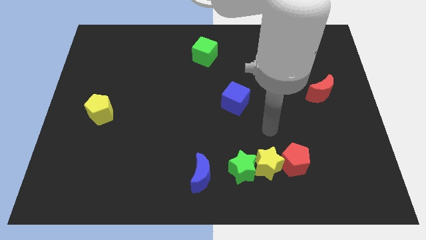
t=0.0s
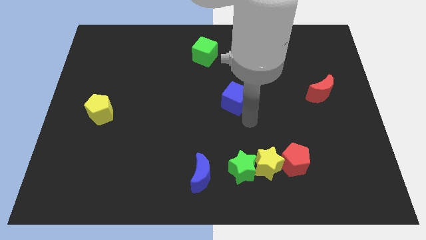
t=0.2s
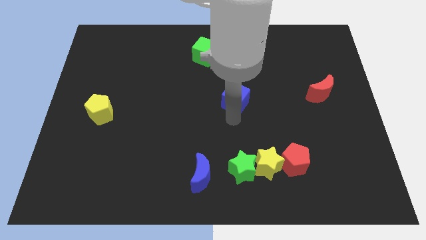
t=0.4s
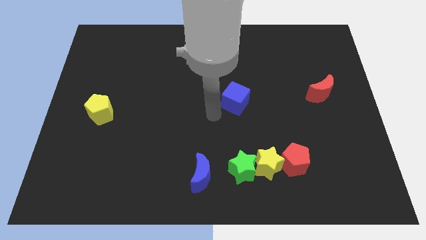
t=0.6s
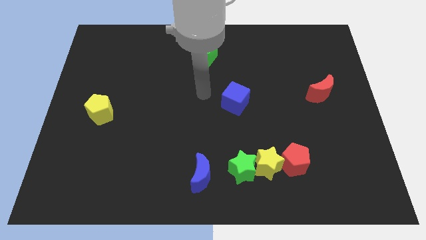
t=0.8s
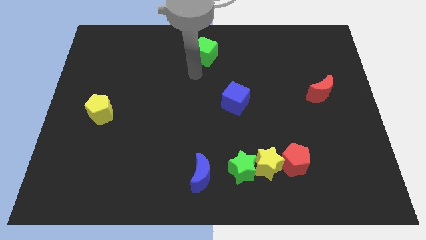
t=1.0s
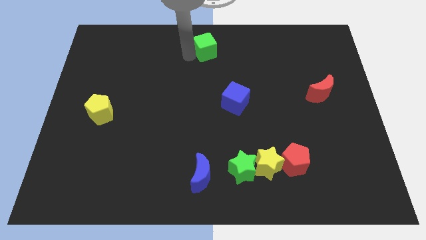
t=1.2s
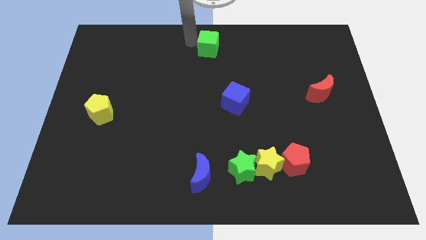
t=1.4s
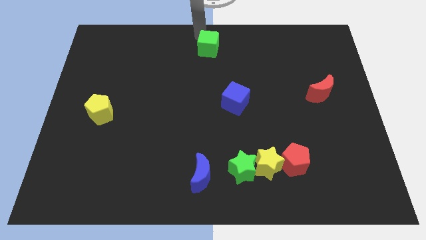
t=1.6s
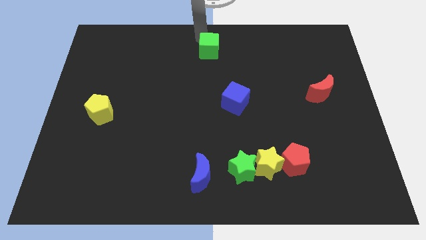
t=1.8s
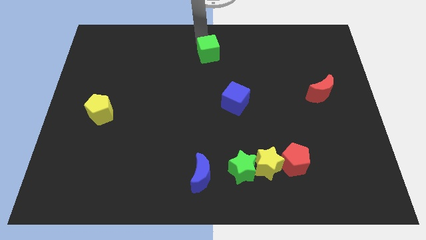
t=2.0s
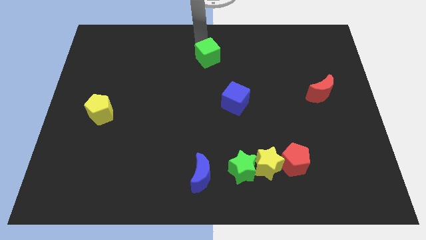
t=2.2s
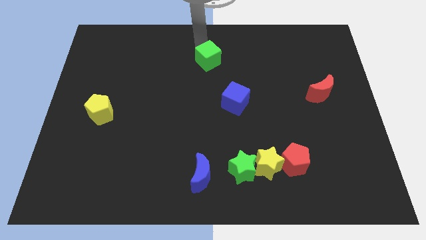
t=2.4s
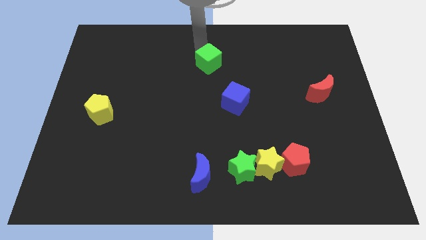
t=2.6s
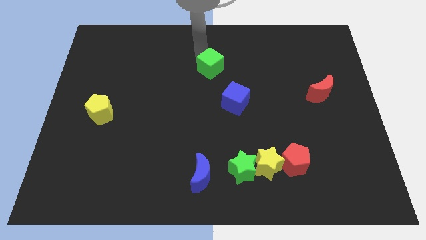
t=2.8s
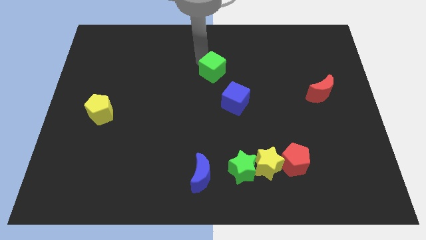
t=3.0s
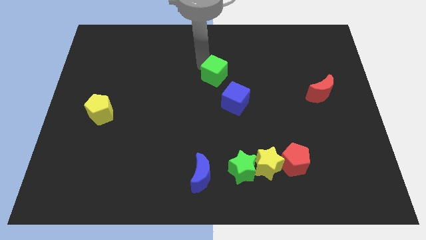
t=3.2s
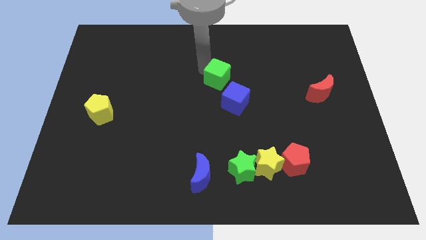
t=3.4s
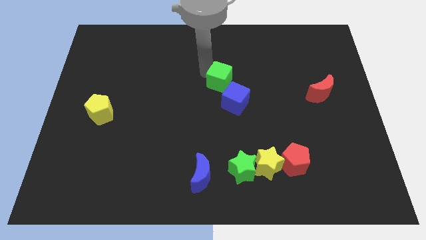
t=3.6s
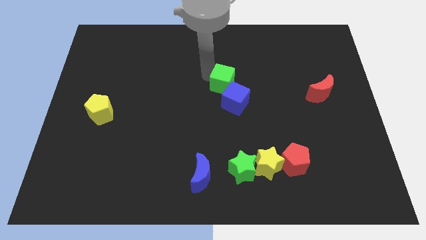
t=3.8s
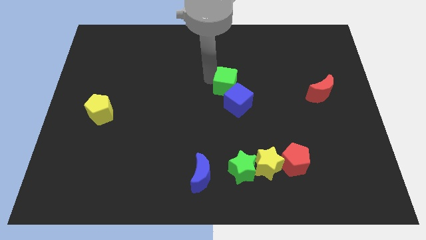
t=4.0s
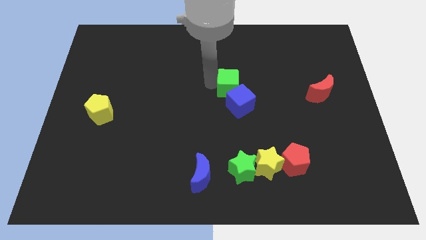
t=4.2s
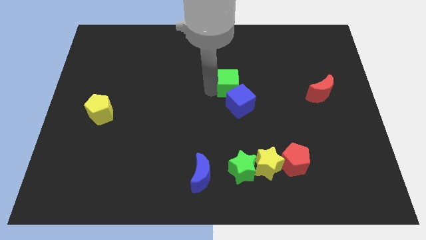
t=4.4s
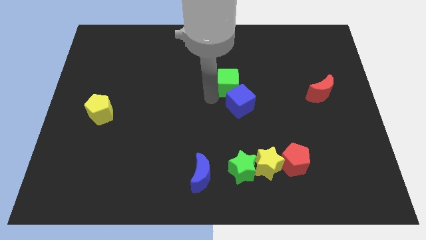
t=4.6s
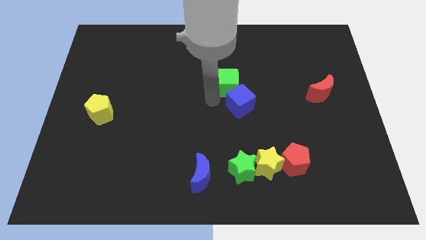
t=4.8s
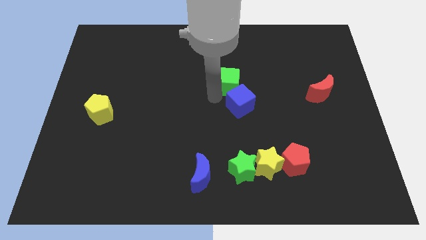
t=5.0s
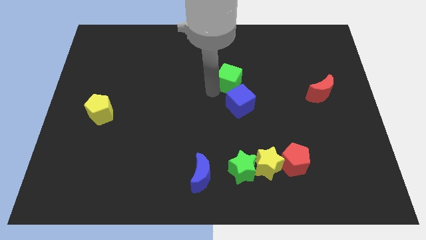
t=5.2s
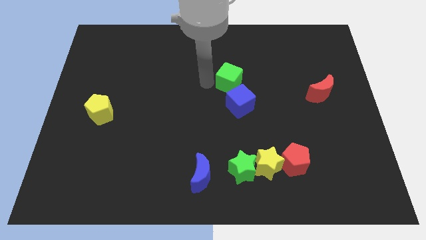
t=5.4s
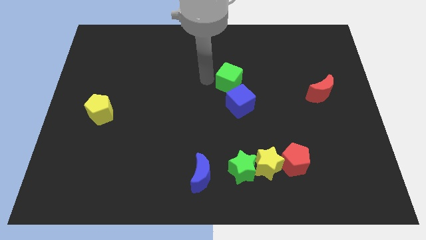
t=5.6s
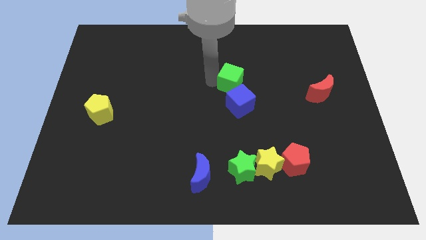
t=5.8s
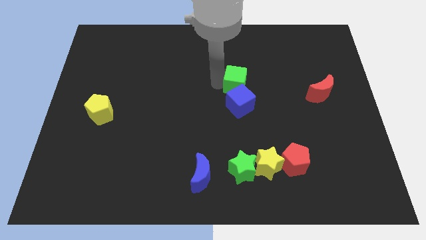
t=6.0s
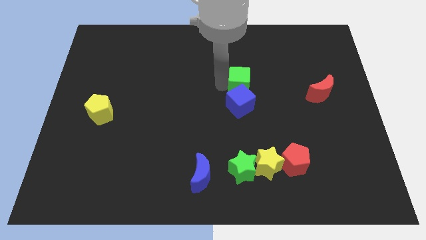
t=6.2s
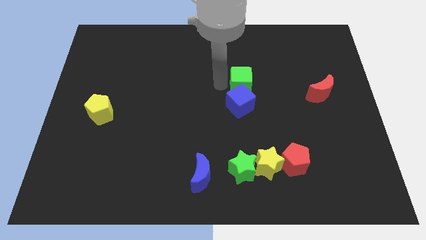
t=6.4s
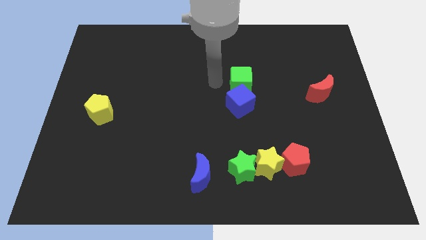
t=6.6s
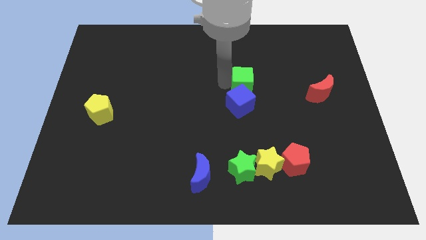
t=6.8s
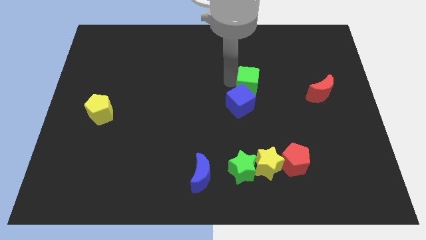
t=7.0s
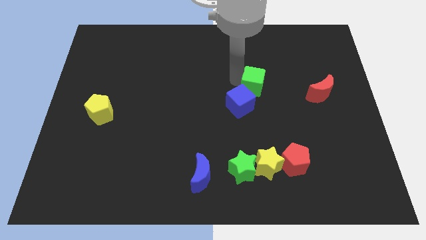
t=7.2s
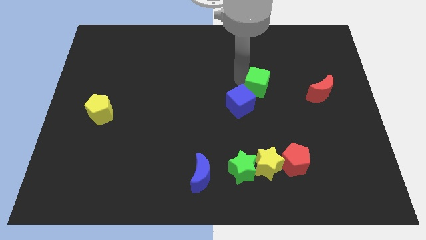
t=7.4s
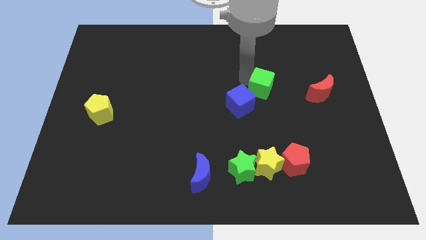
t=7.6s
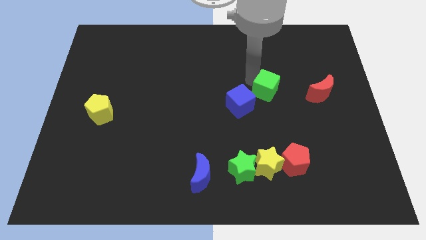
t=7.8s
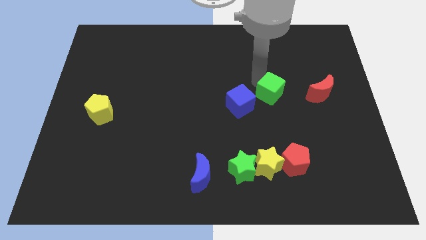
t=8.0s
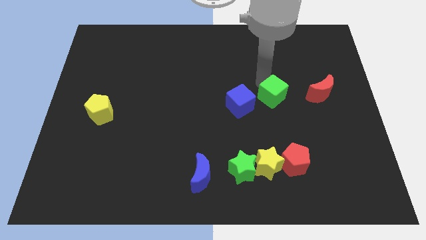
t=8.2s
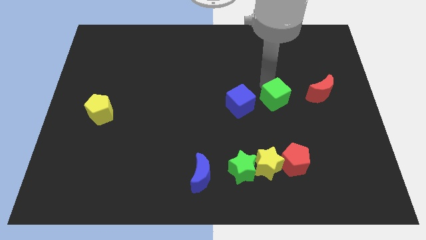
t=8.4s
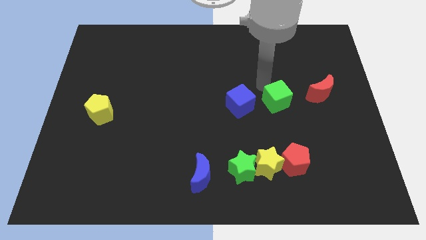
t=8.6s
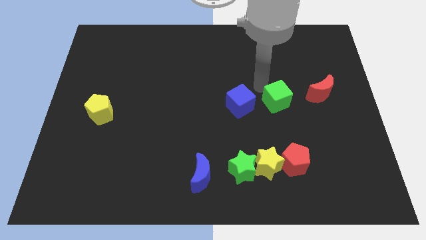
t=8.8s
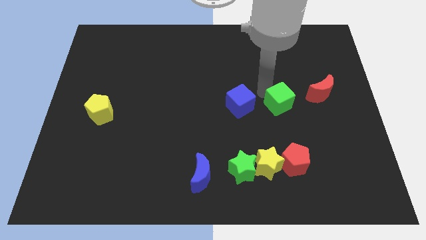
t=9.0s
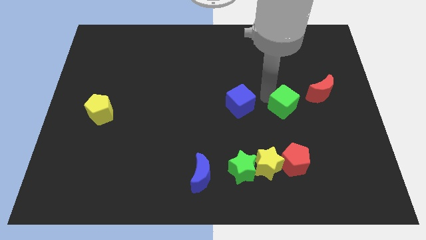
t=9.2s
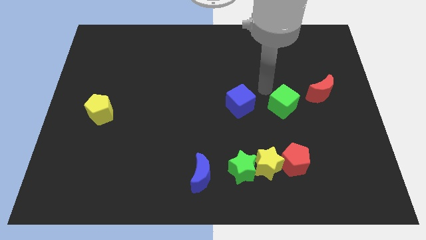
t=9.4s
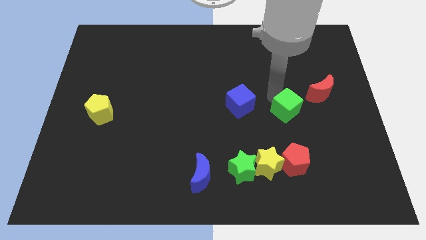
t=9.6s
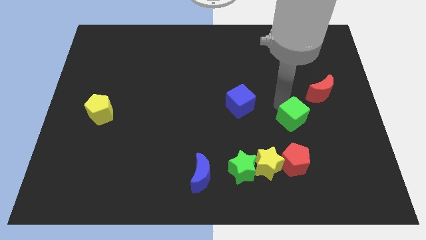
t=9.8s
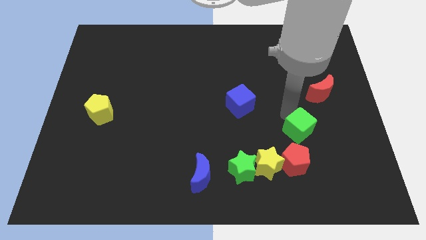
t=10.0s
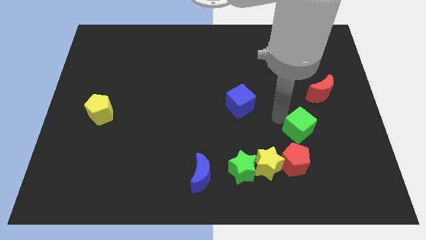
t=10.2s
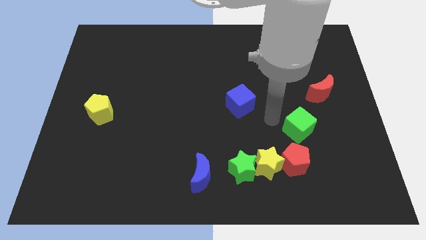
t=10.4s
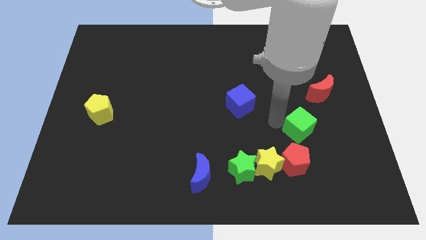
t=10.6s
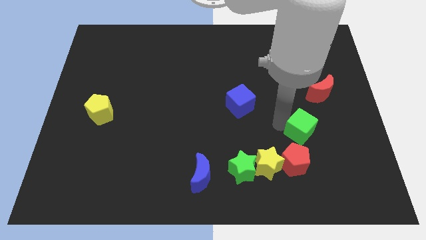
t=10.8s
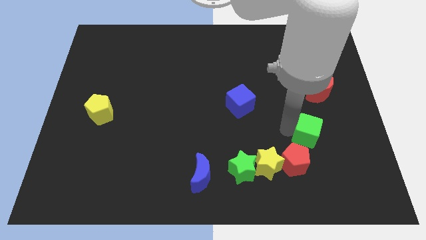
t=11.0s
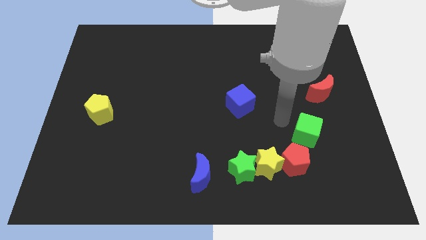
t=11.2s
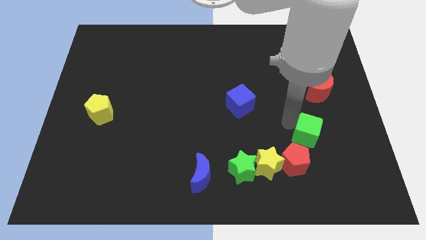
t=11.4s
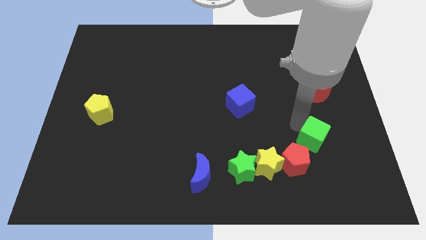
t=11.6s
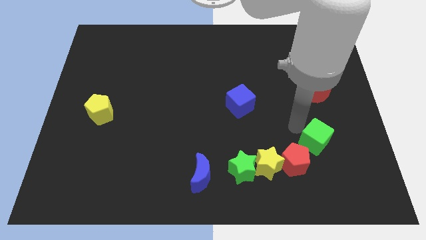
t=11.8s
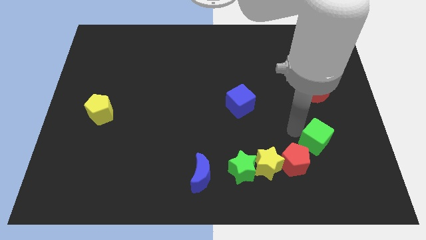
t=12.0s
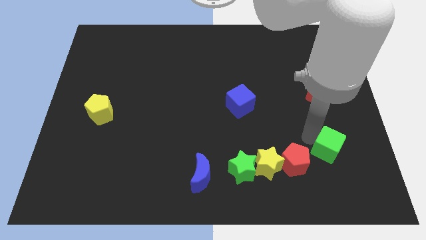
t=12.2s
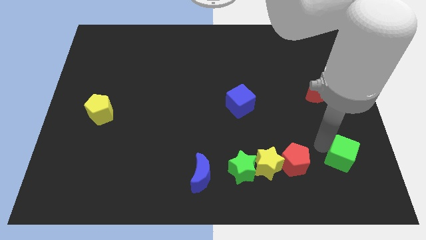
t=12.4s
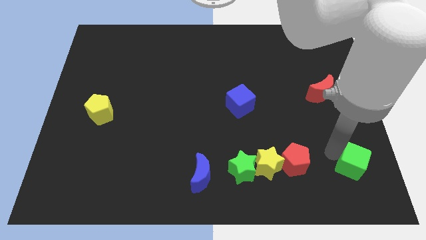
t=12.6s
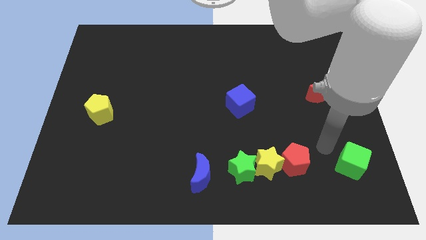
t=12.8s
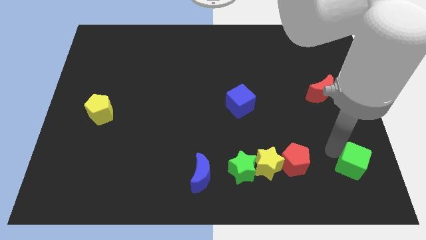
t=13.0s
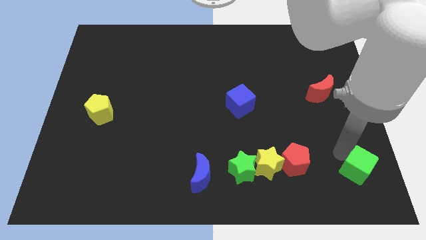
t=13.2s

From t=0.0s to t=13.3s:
slide the green cube to the lower right corner
